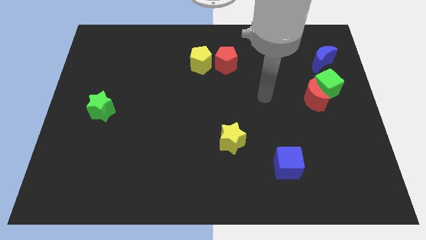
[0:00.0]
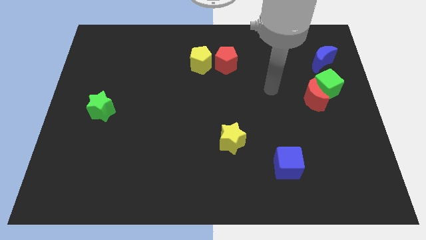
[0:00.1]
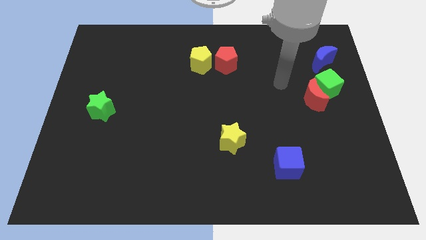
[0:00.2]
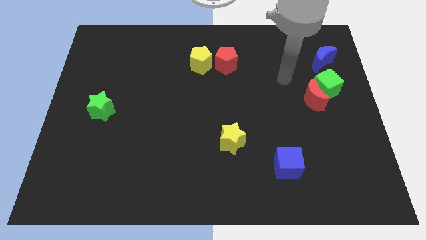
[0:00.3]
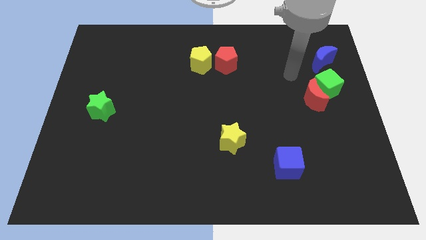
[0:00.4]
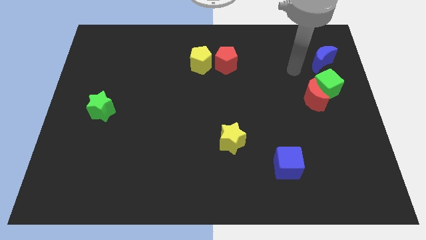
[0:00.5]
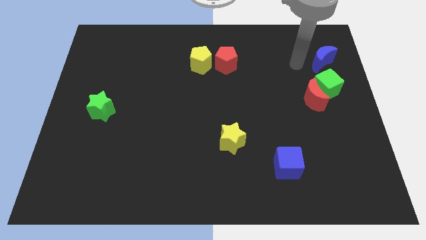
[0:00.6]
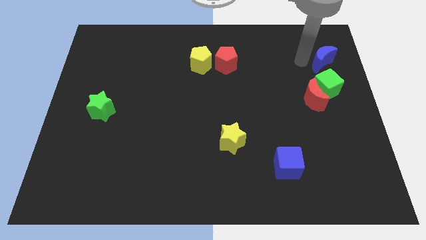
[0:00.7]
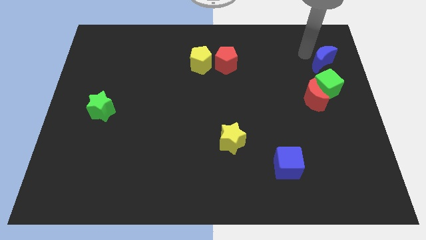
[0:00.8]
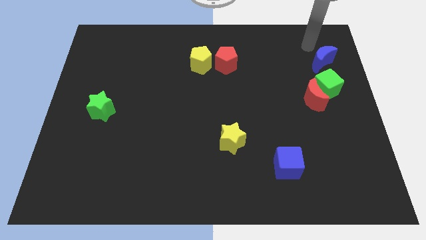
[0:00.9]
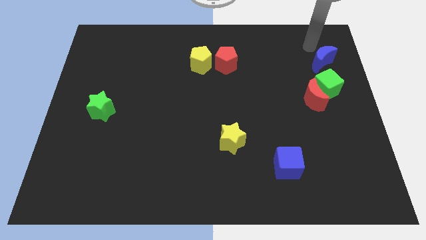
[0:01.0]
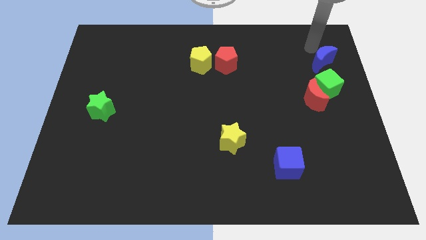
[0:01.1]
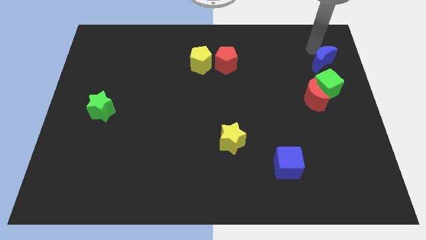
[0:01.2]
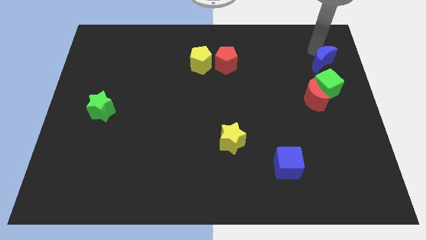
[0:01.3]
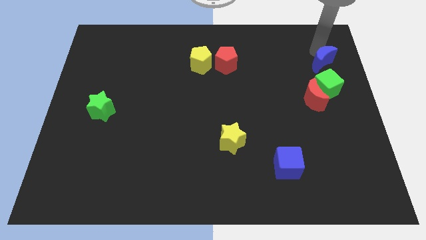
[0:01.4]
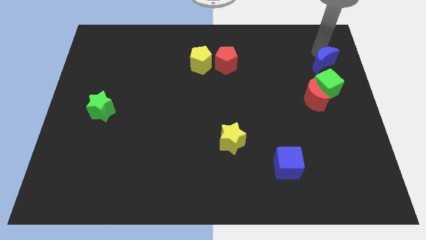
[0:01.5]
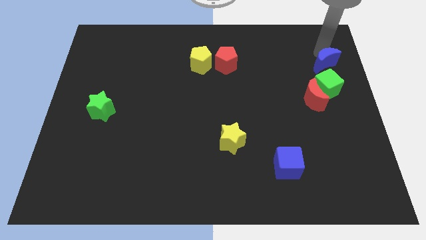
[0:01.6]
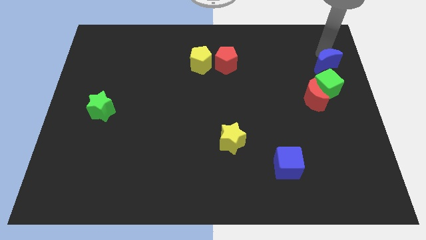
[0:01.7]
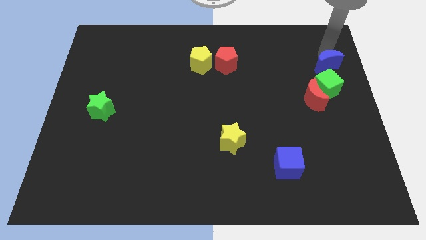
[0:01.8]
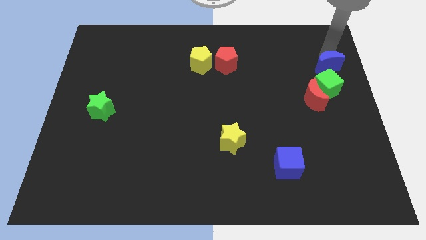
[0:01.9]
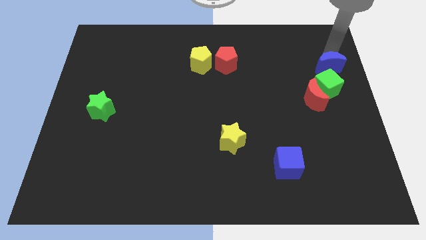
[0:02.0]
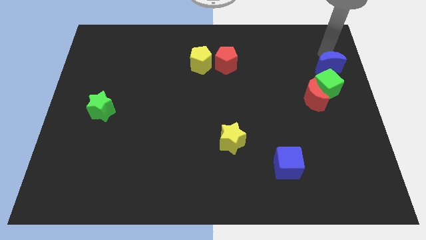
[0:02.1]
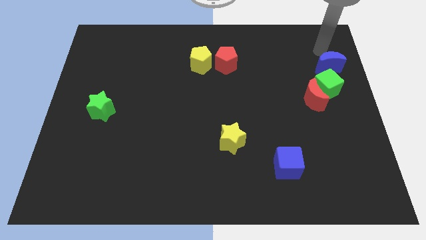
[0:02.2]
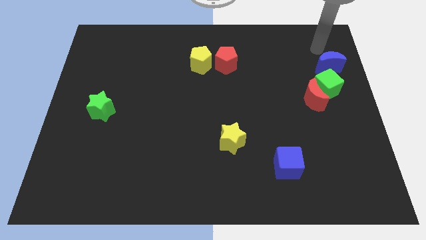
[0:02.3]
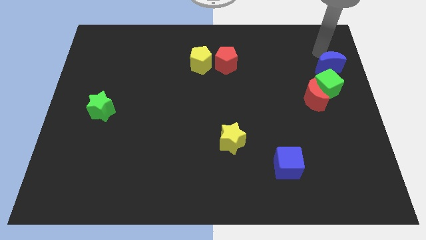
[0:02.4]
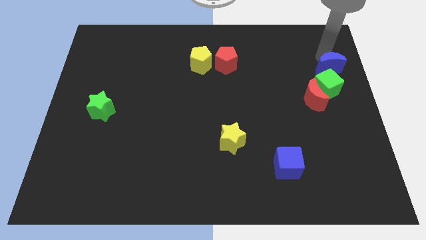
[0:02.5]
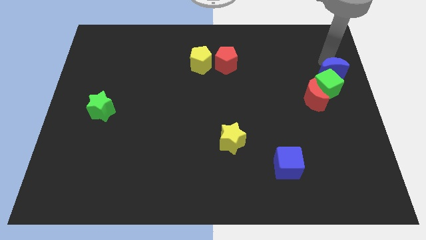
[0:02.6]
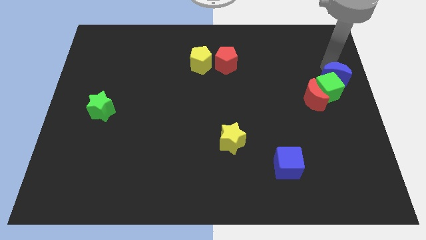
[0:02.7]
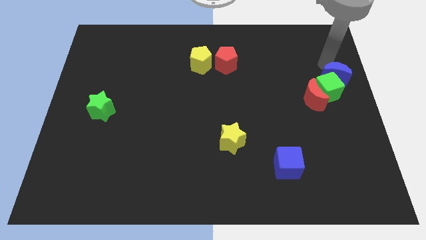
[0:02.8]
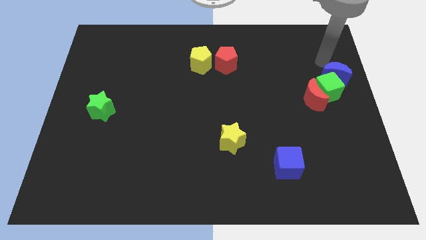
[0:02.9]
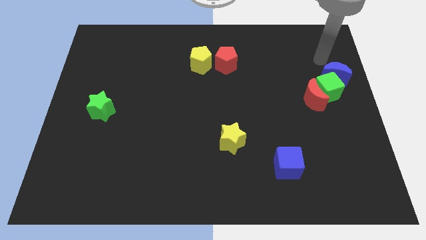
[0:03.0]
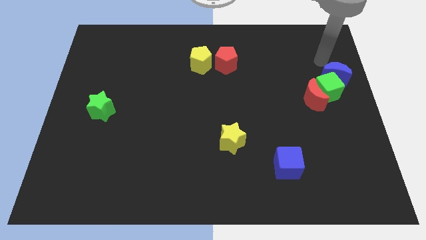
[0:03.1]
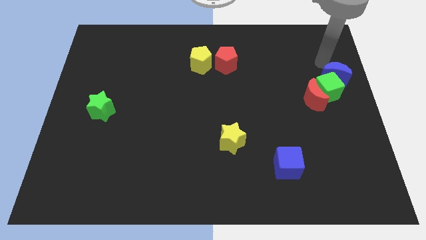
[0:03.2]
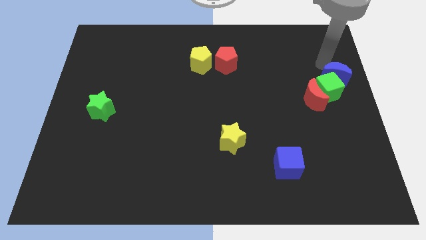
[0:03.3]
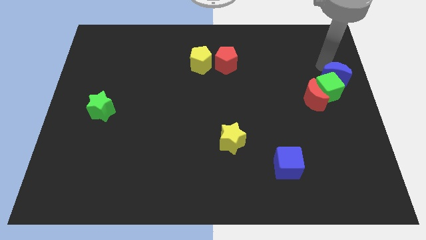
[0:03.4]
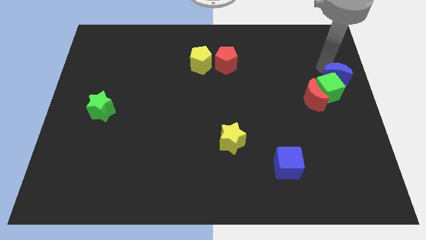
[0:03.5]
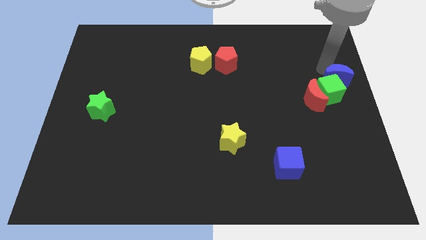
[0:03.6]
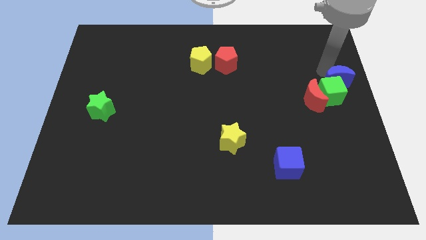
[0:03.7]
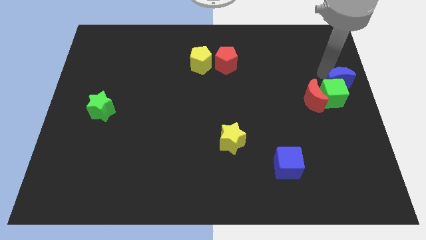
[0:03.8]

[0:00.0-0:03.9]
move the blue moon down somewhat

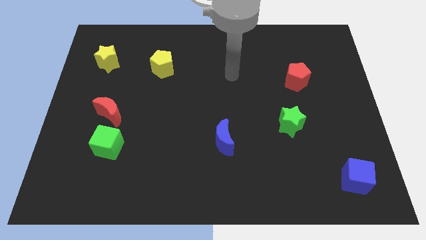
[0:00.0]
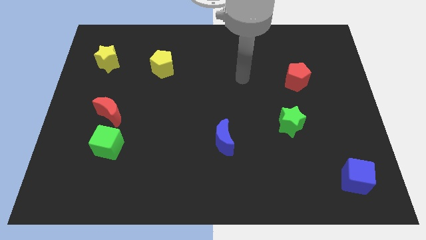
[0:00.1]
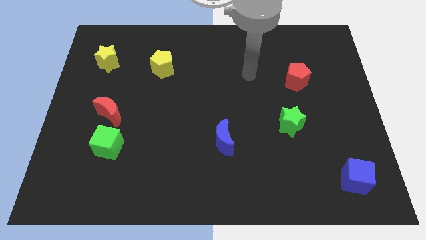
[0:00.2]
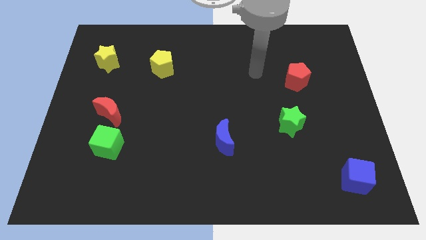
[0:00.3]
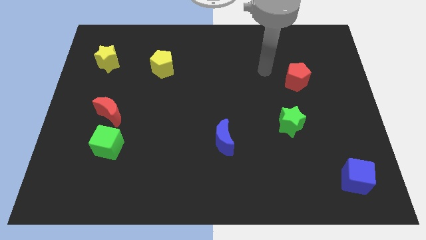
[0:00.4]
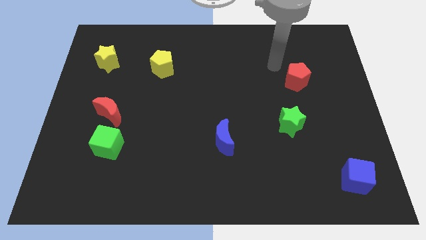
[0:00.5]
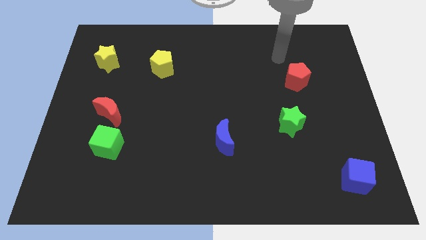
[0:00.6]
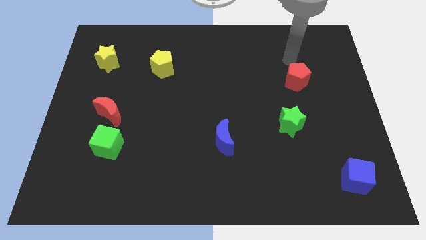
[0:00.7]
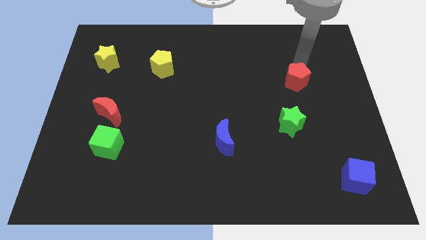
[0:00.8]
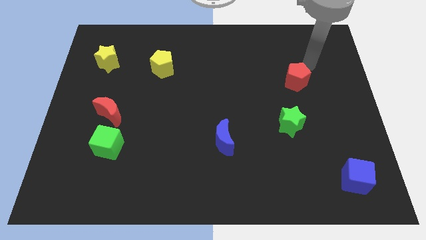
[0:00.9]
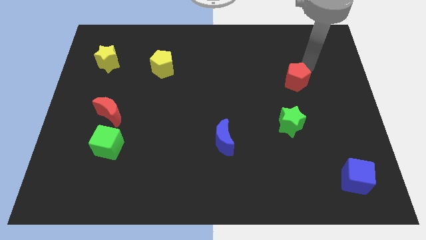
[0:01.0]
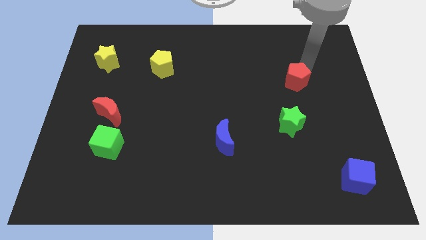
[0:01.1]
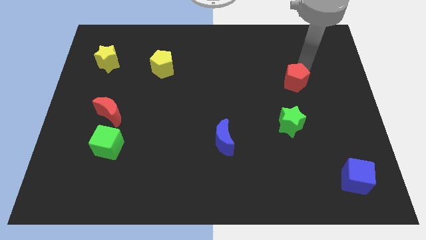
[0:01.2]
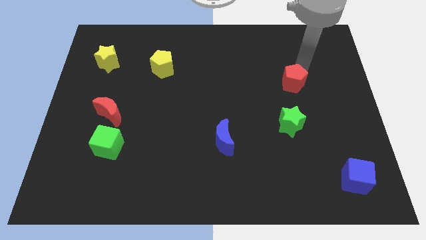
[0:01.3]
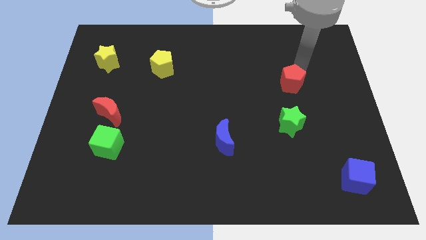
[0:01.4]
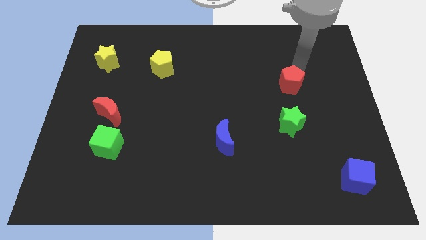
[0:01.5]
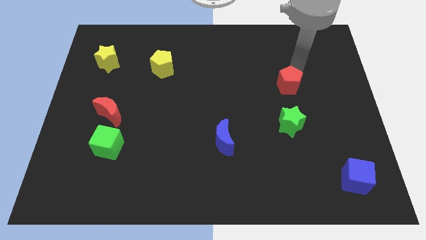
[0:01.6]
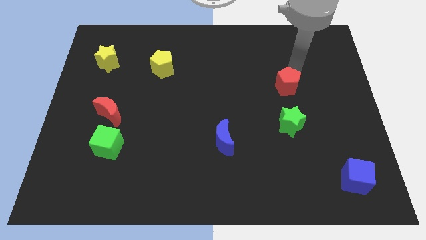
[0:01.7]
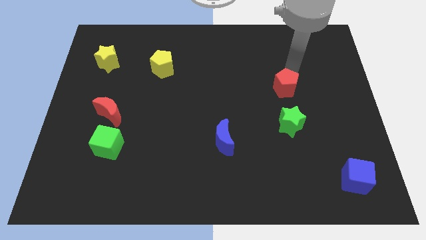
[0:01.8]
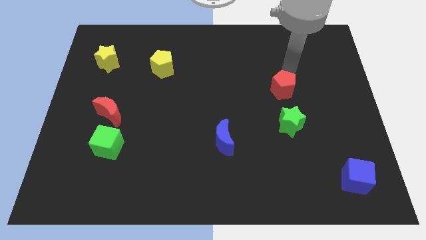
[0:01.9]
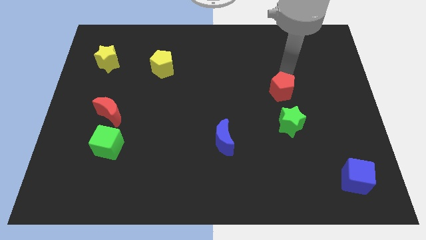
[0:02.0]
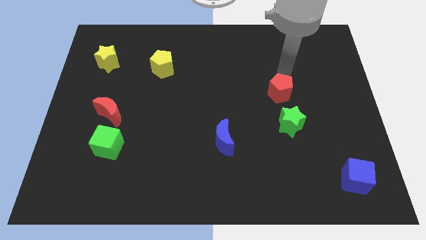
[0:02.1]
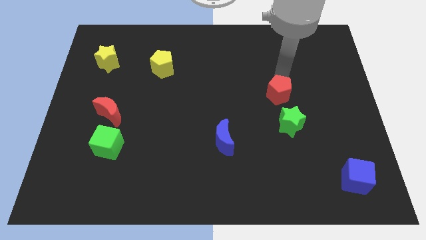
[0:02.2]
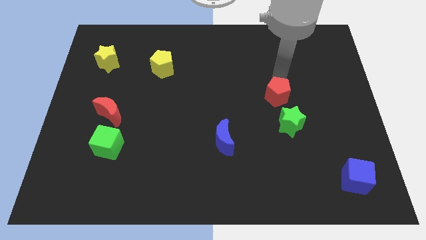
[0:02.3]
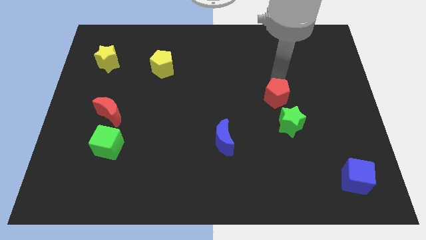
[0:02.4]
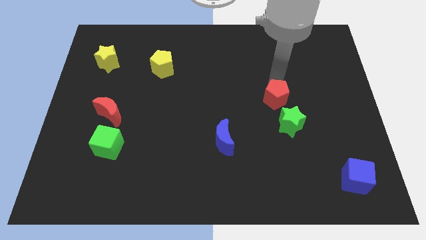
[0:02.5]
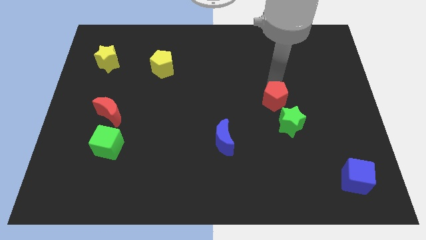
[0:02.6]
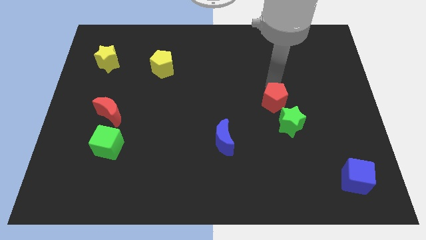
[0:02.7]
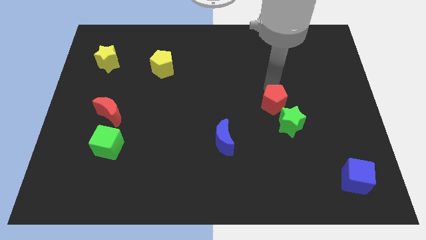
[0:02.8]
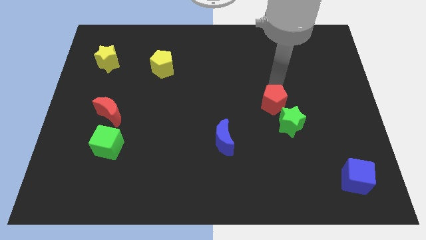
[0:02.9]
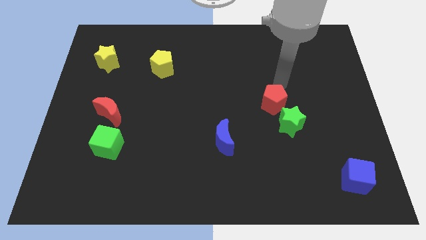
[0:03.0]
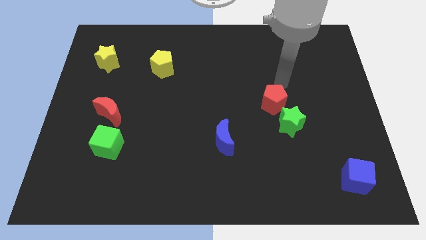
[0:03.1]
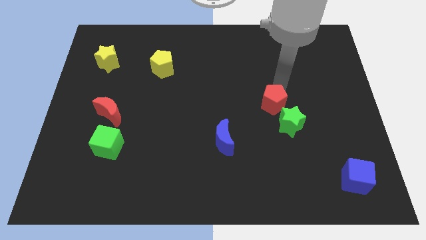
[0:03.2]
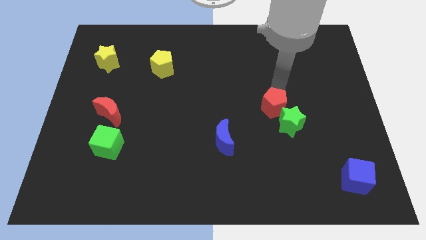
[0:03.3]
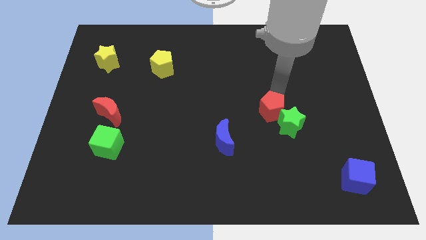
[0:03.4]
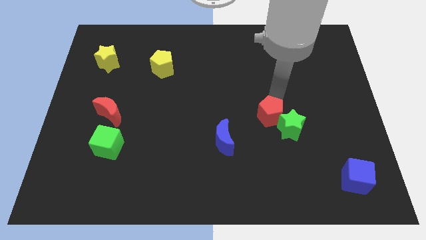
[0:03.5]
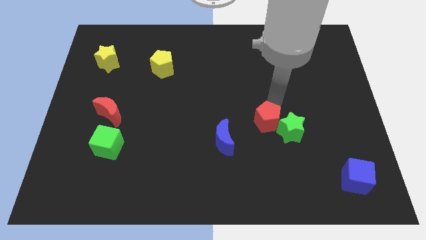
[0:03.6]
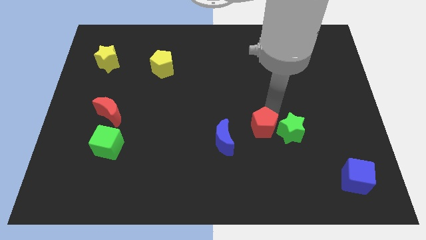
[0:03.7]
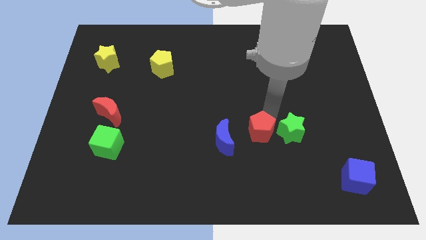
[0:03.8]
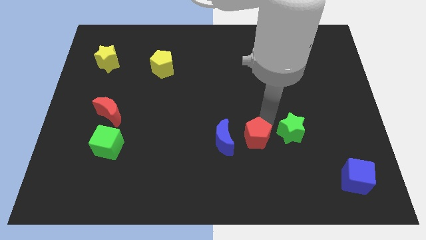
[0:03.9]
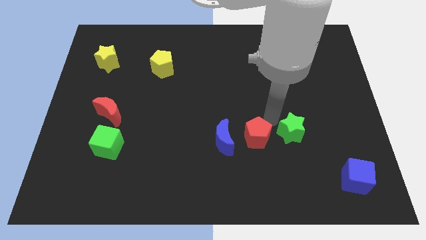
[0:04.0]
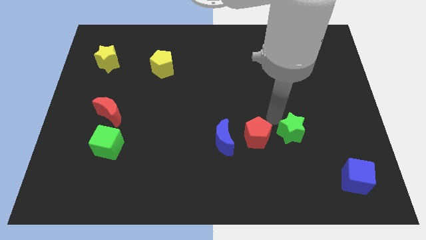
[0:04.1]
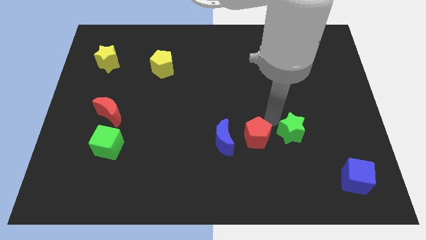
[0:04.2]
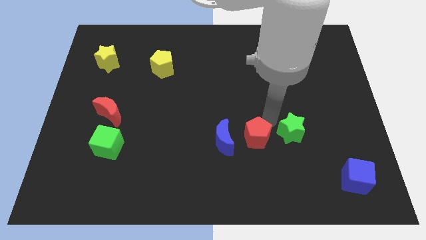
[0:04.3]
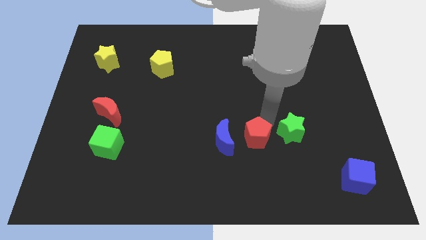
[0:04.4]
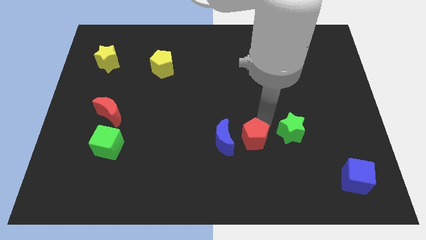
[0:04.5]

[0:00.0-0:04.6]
slide the red pentagon diagonally down and left
